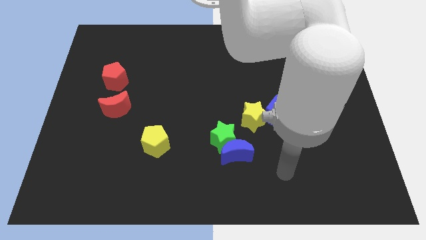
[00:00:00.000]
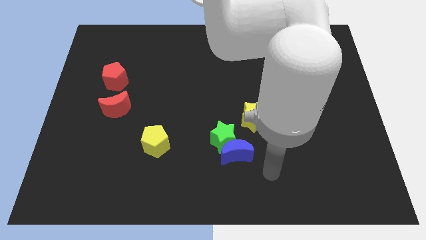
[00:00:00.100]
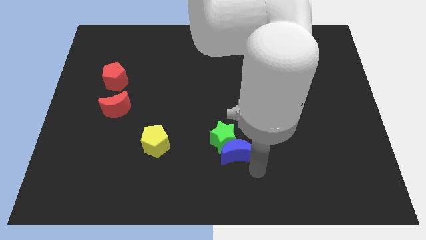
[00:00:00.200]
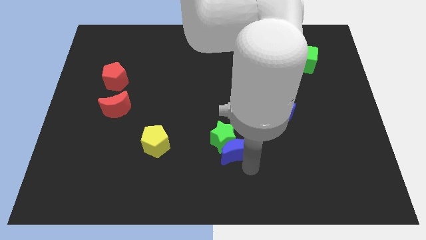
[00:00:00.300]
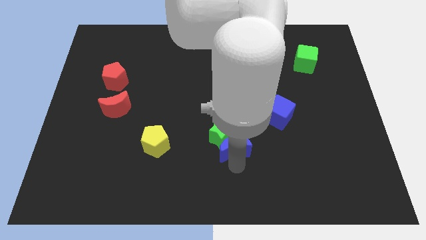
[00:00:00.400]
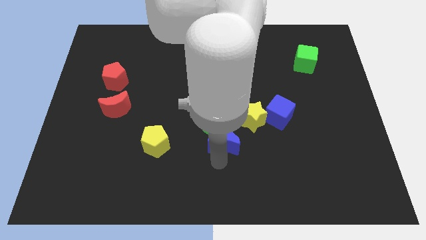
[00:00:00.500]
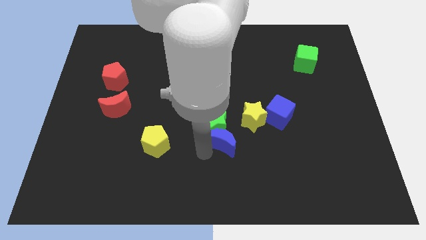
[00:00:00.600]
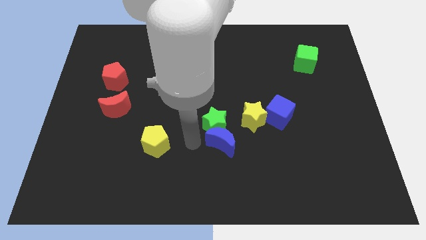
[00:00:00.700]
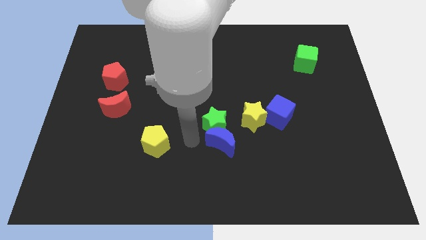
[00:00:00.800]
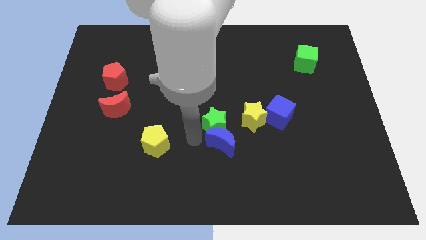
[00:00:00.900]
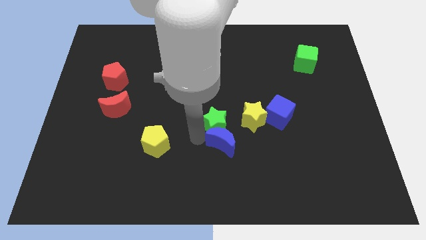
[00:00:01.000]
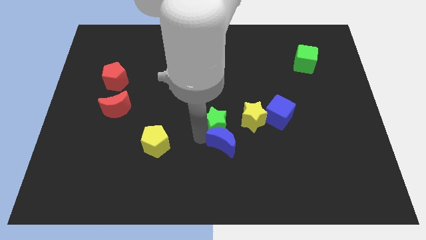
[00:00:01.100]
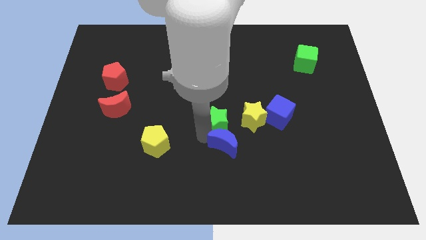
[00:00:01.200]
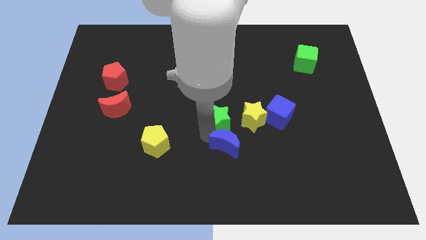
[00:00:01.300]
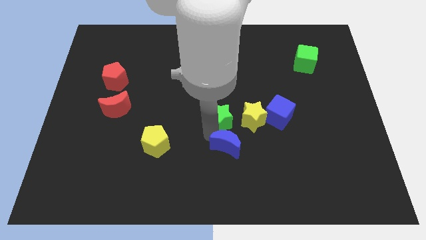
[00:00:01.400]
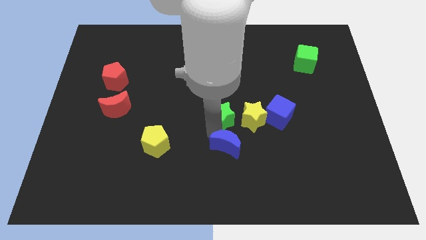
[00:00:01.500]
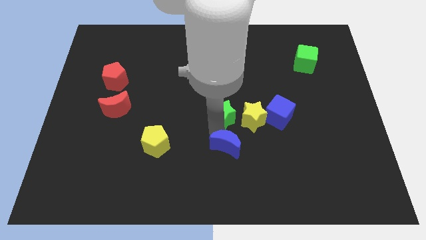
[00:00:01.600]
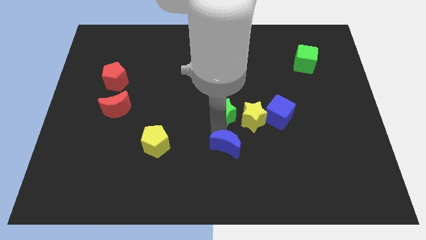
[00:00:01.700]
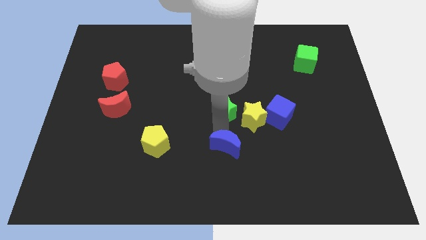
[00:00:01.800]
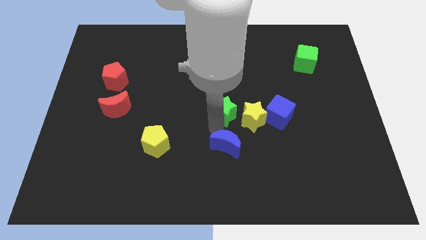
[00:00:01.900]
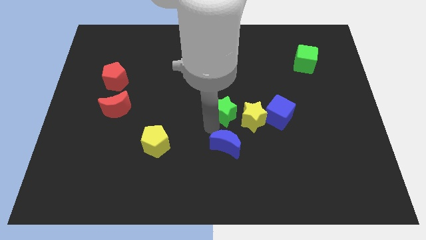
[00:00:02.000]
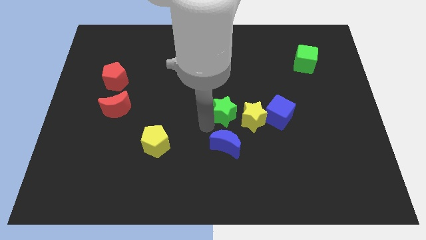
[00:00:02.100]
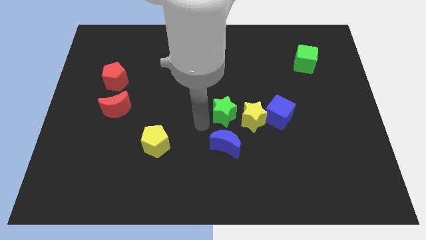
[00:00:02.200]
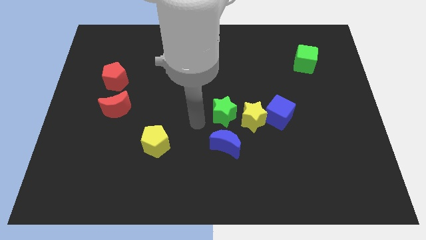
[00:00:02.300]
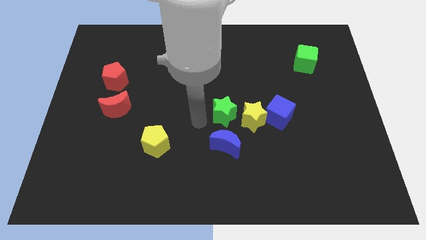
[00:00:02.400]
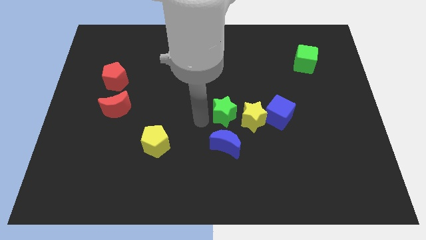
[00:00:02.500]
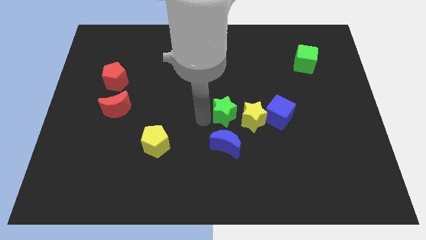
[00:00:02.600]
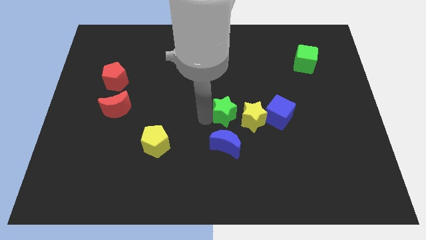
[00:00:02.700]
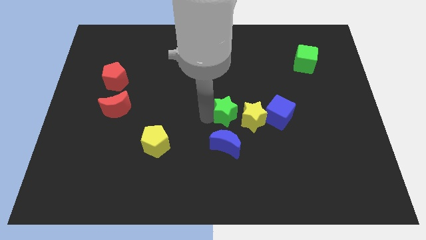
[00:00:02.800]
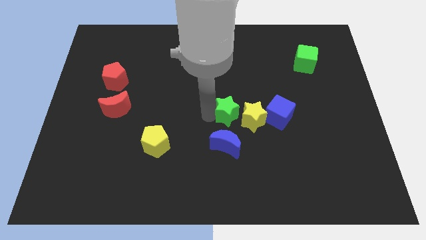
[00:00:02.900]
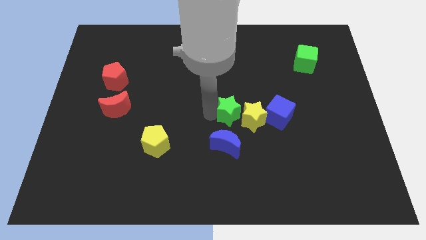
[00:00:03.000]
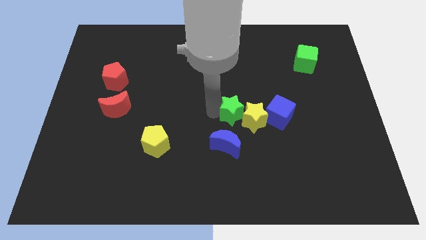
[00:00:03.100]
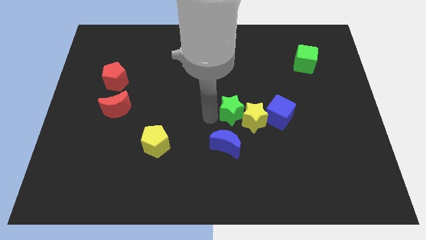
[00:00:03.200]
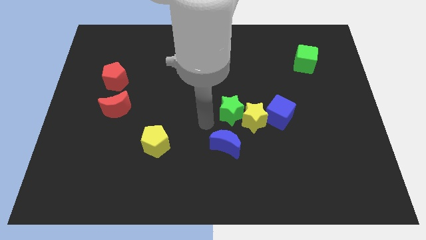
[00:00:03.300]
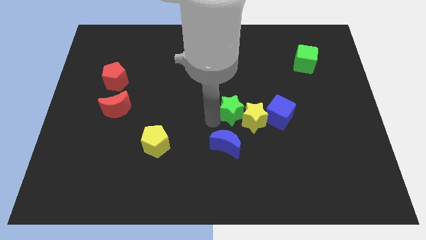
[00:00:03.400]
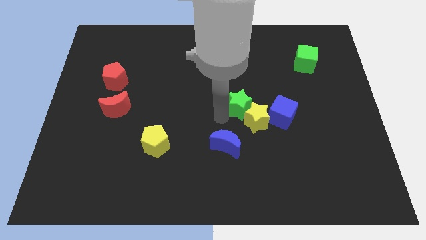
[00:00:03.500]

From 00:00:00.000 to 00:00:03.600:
slide the green star a little up and then to the right

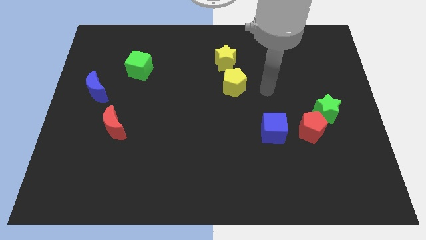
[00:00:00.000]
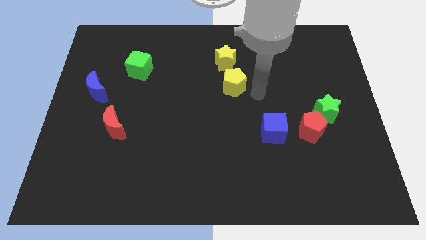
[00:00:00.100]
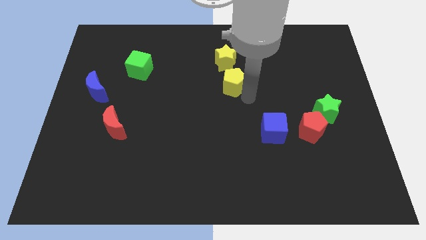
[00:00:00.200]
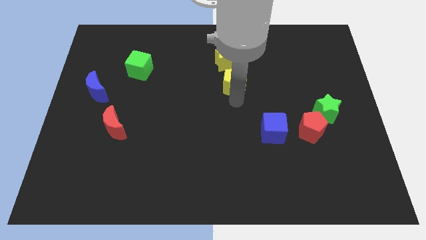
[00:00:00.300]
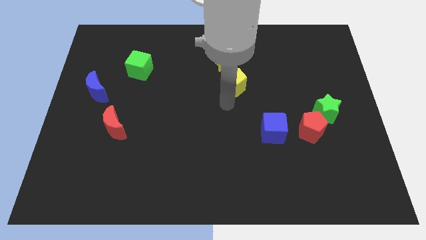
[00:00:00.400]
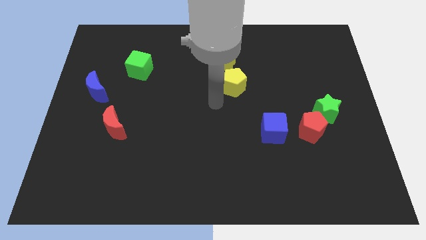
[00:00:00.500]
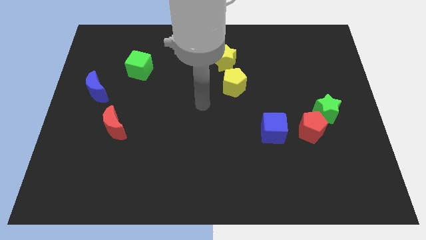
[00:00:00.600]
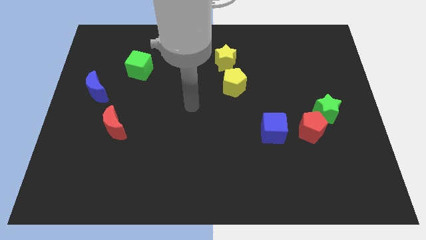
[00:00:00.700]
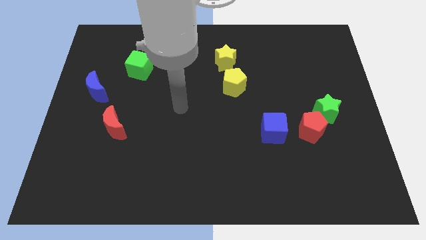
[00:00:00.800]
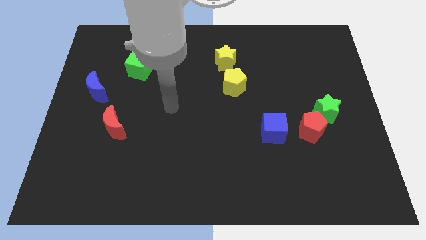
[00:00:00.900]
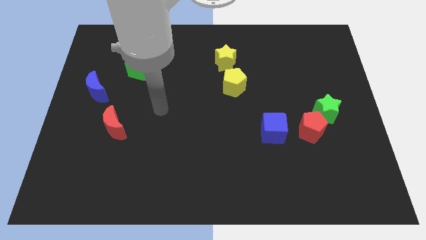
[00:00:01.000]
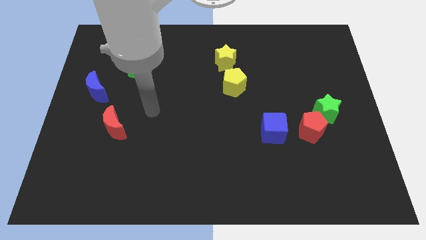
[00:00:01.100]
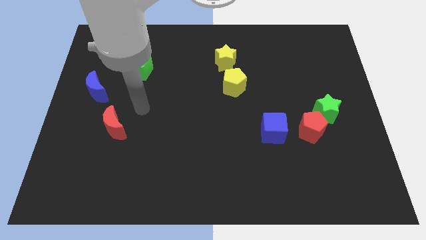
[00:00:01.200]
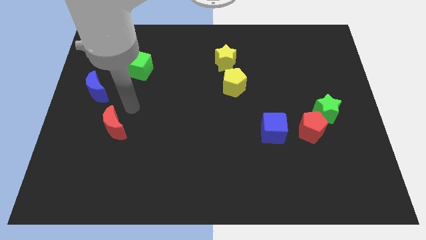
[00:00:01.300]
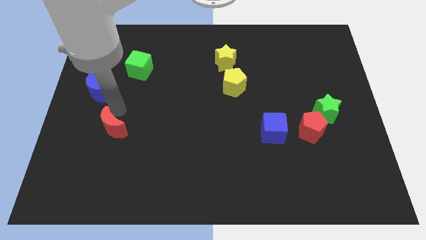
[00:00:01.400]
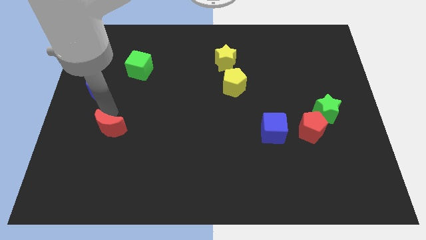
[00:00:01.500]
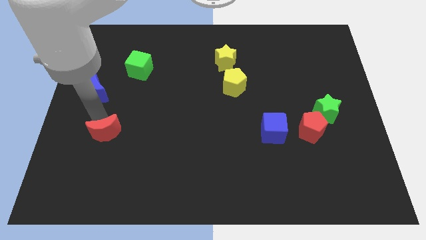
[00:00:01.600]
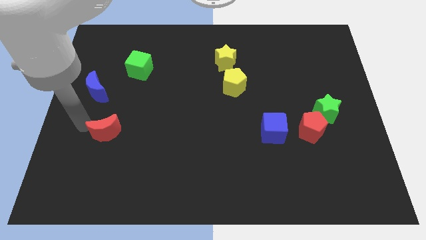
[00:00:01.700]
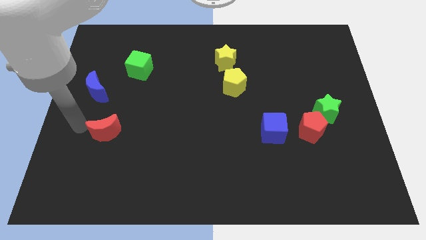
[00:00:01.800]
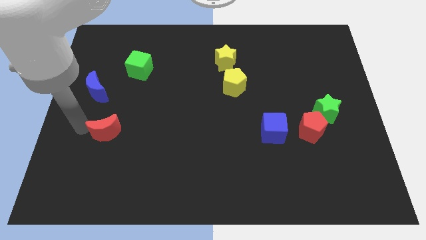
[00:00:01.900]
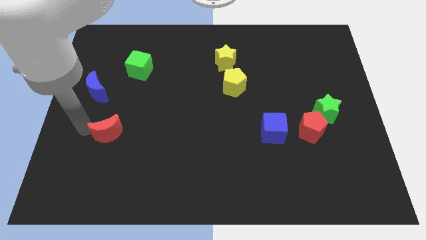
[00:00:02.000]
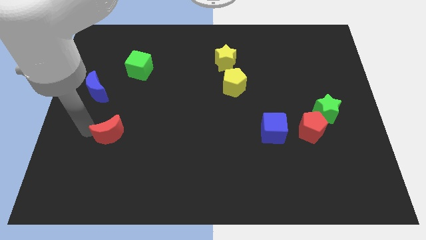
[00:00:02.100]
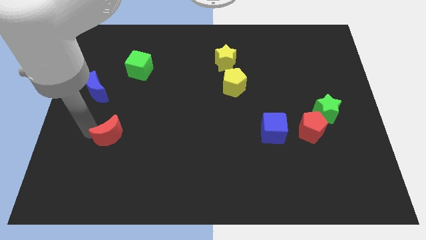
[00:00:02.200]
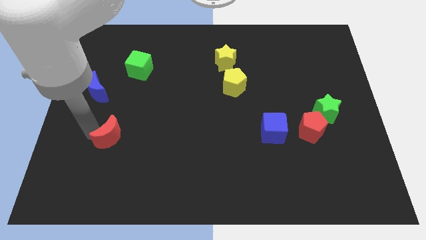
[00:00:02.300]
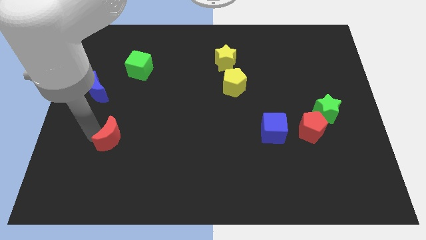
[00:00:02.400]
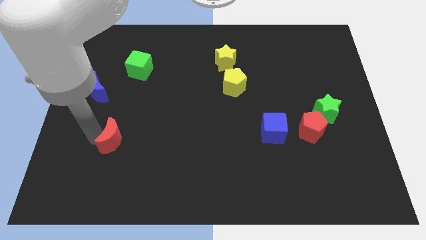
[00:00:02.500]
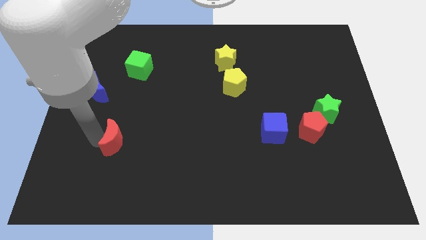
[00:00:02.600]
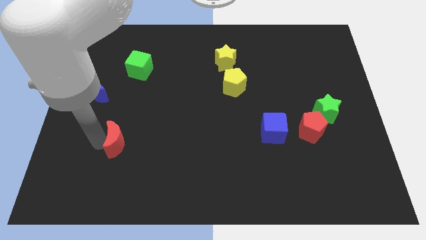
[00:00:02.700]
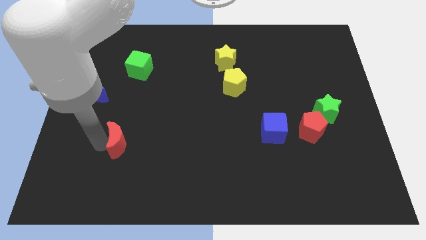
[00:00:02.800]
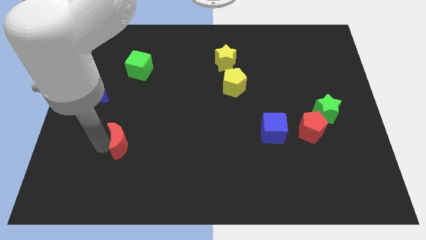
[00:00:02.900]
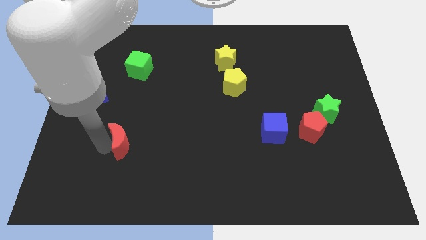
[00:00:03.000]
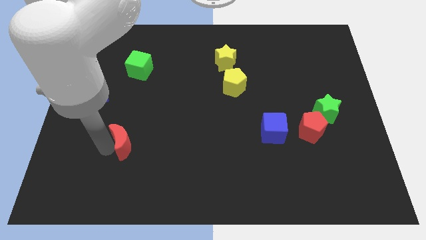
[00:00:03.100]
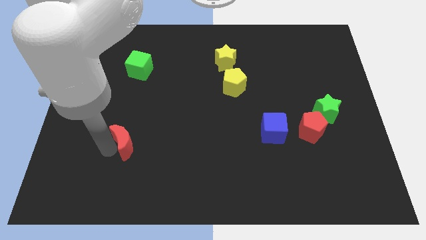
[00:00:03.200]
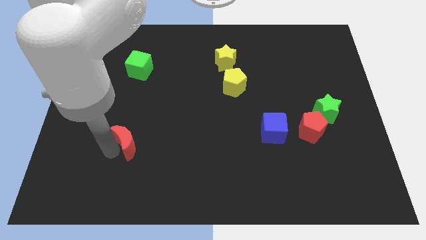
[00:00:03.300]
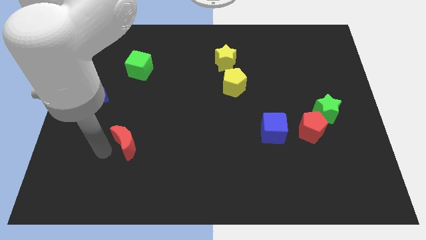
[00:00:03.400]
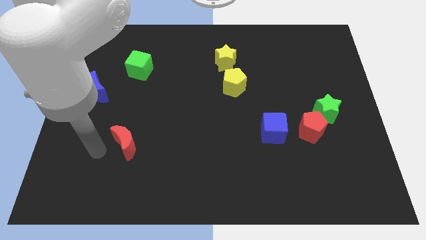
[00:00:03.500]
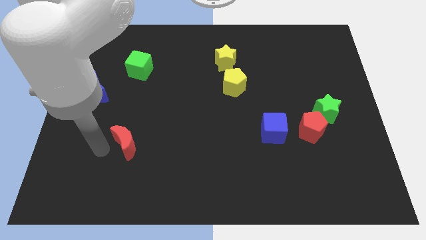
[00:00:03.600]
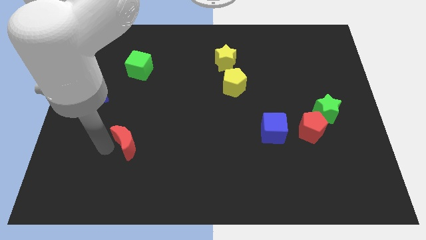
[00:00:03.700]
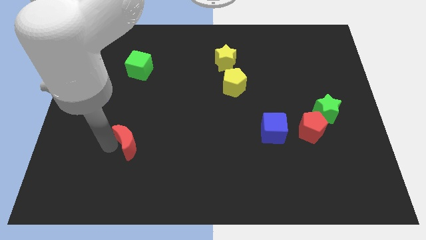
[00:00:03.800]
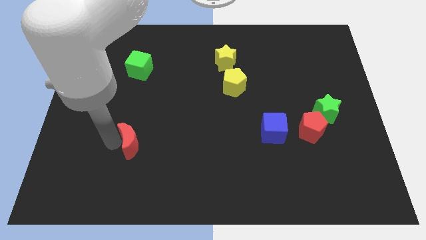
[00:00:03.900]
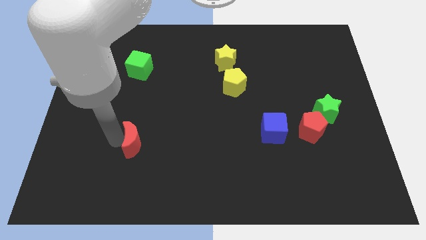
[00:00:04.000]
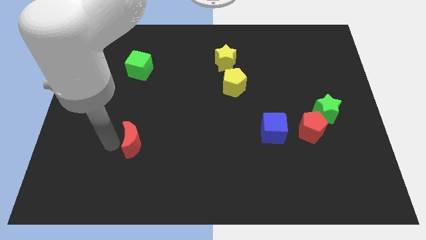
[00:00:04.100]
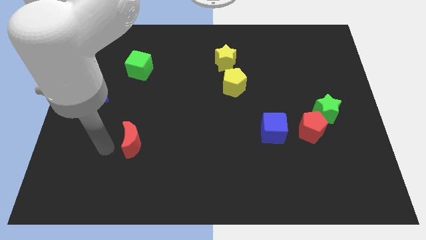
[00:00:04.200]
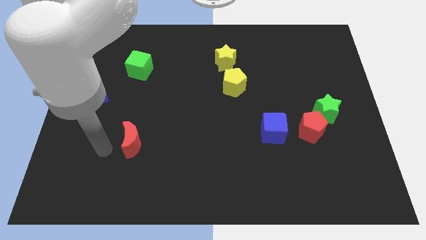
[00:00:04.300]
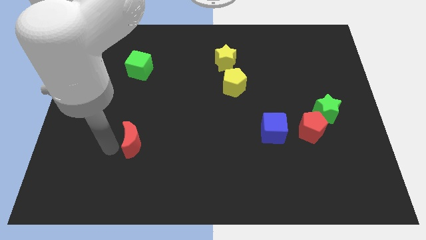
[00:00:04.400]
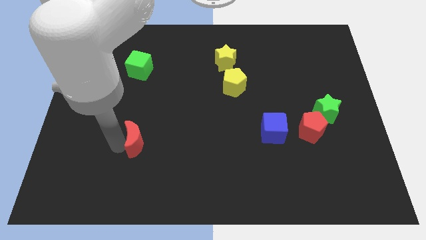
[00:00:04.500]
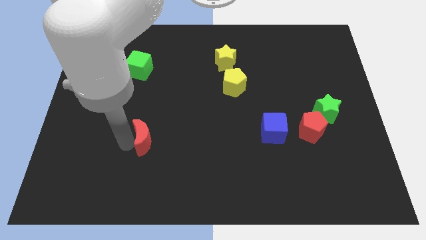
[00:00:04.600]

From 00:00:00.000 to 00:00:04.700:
push the red moon a little bit to the right
